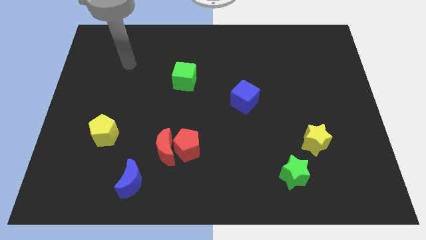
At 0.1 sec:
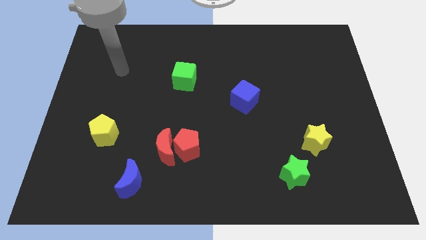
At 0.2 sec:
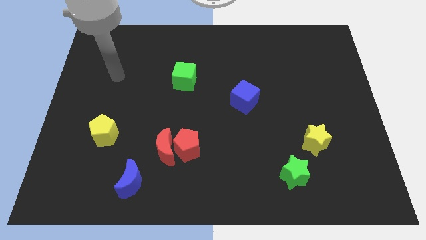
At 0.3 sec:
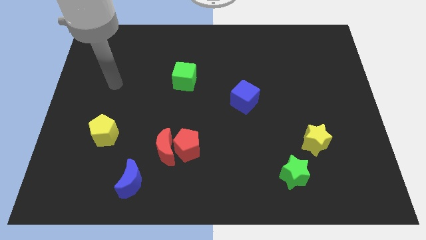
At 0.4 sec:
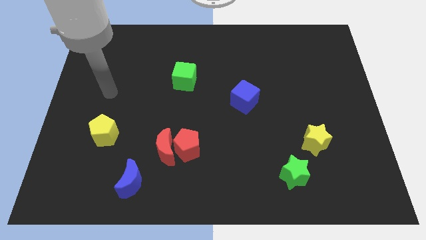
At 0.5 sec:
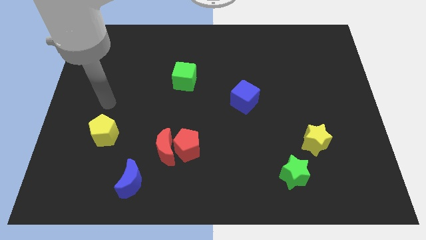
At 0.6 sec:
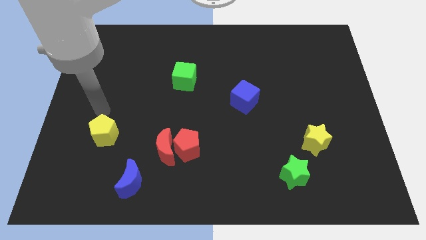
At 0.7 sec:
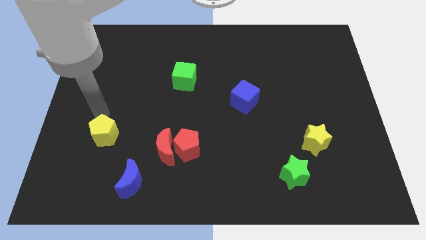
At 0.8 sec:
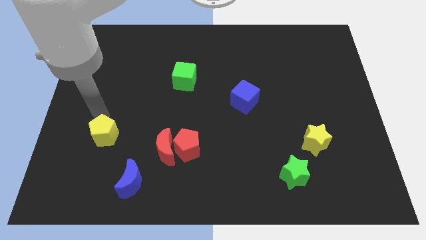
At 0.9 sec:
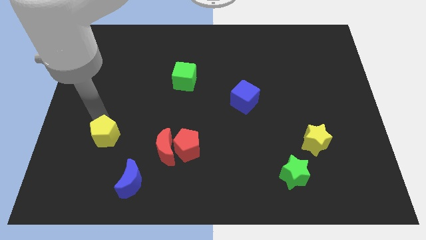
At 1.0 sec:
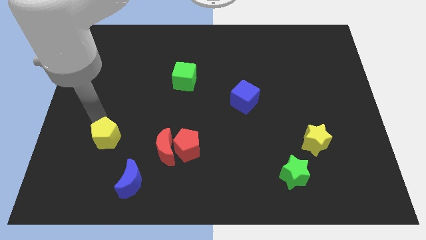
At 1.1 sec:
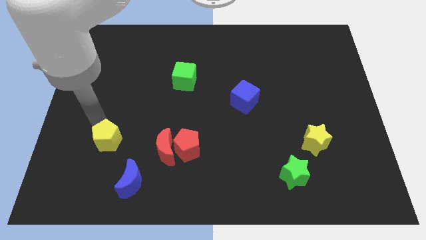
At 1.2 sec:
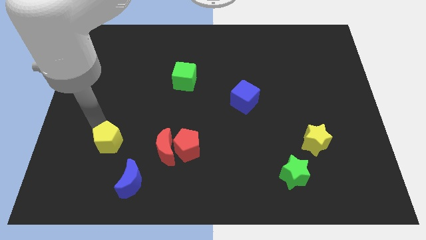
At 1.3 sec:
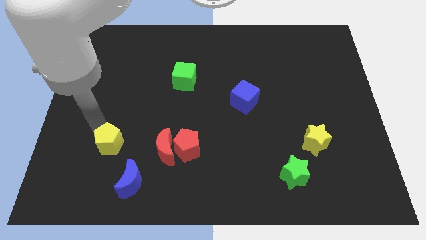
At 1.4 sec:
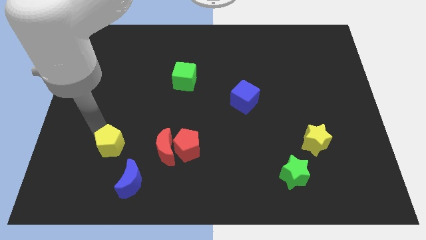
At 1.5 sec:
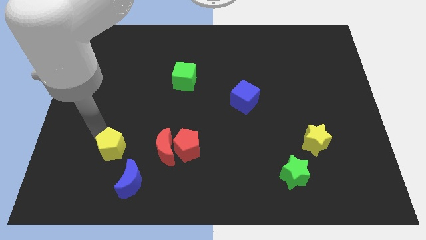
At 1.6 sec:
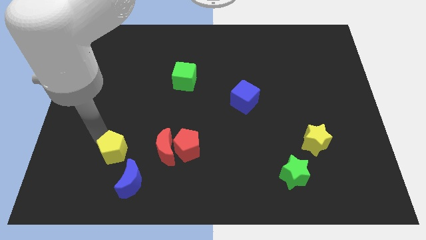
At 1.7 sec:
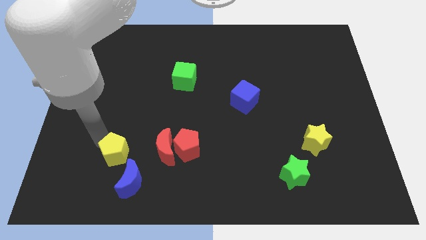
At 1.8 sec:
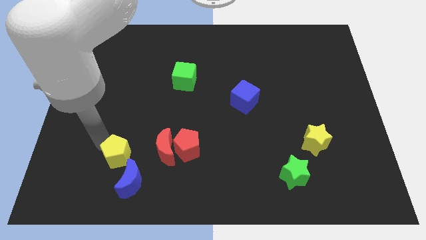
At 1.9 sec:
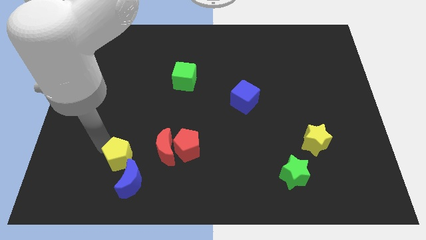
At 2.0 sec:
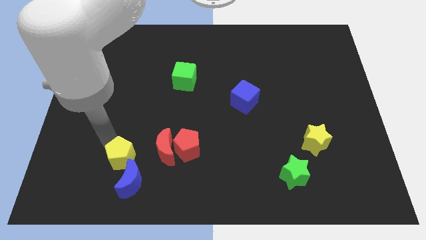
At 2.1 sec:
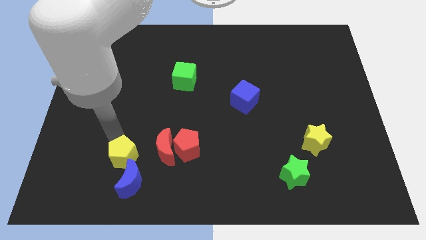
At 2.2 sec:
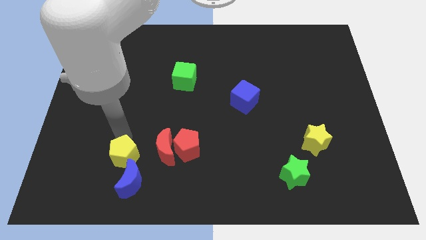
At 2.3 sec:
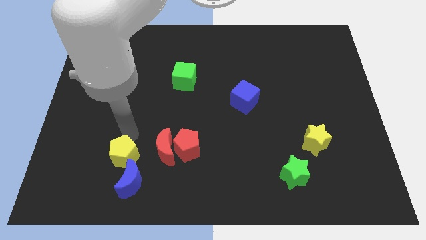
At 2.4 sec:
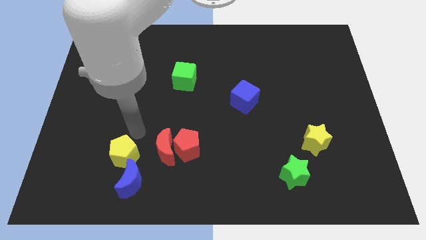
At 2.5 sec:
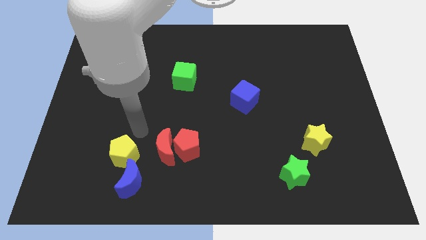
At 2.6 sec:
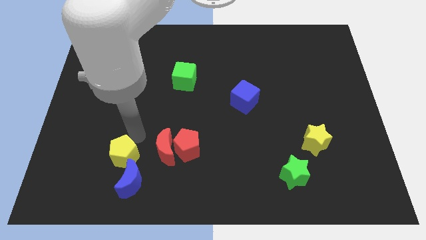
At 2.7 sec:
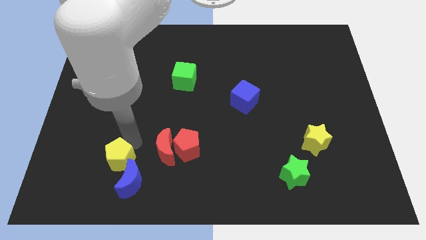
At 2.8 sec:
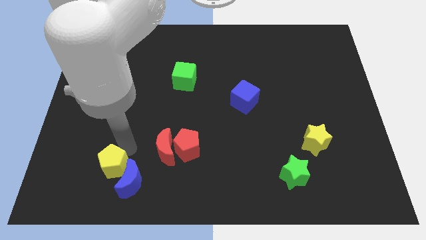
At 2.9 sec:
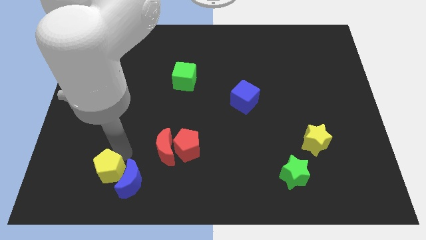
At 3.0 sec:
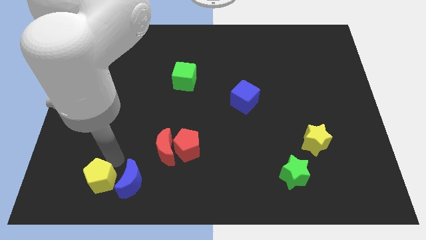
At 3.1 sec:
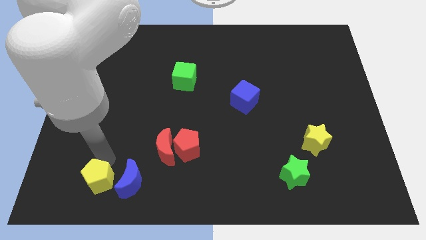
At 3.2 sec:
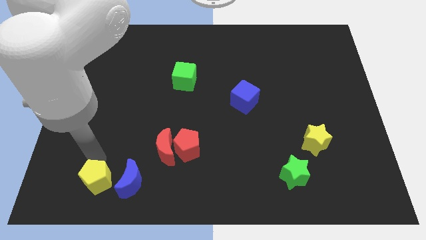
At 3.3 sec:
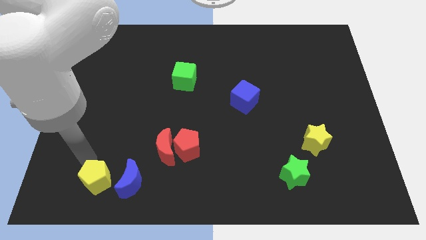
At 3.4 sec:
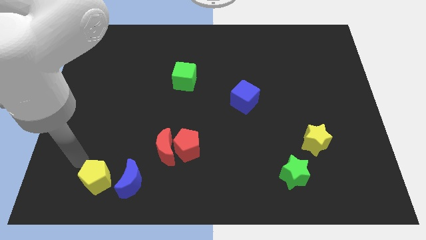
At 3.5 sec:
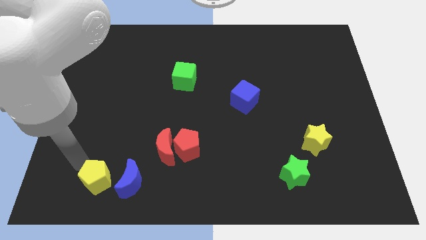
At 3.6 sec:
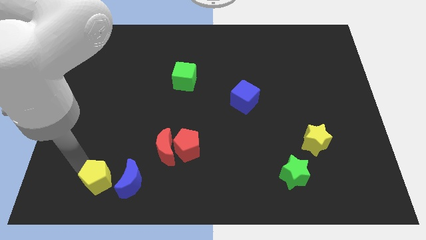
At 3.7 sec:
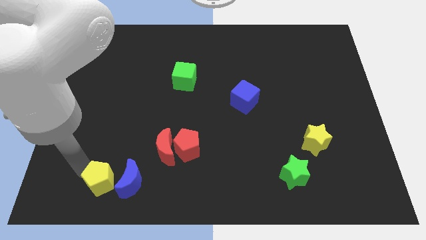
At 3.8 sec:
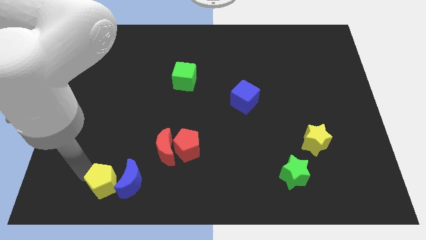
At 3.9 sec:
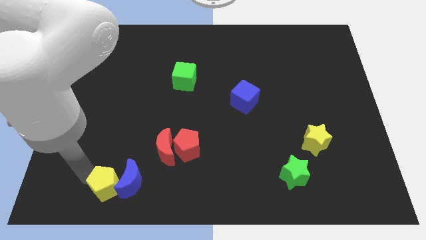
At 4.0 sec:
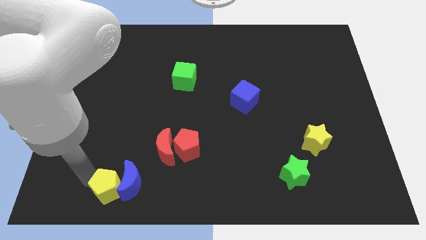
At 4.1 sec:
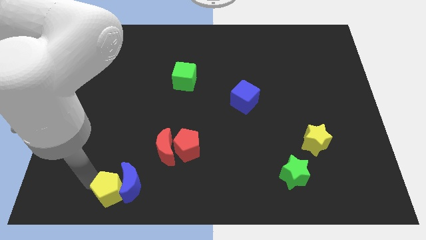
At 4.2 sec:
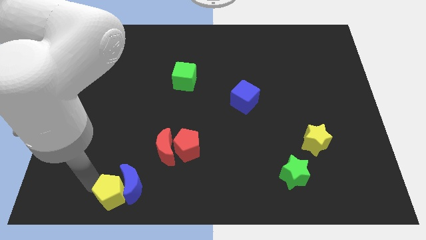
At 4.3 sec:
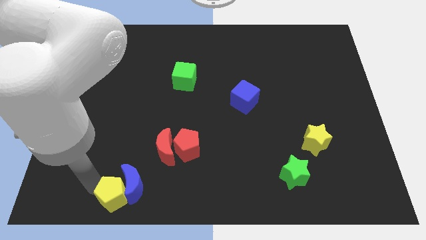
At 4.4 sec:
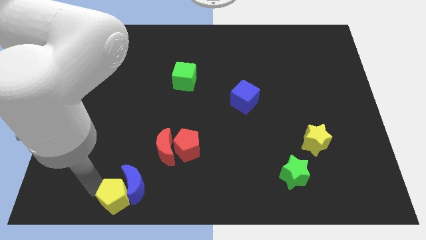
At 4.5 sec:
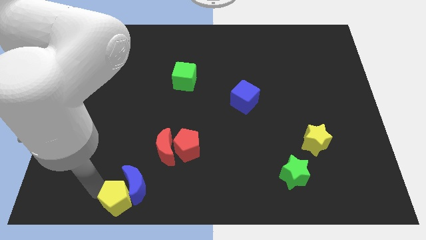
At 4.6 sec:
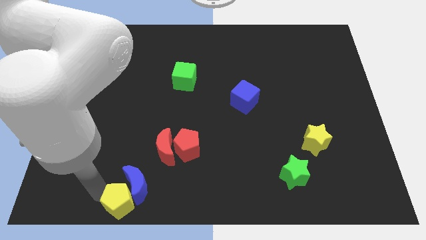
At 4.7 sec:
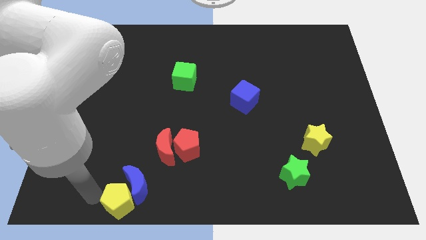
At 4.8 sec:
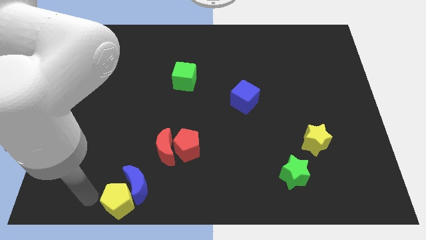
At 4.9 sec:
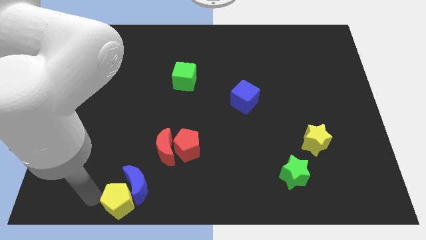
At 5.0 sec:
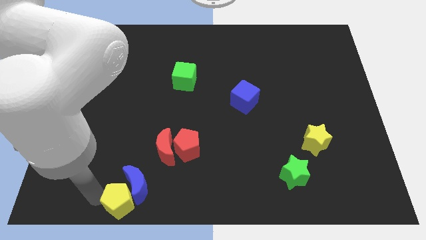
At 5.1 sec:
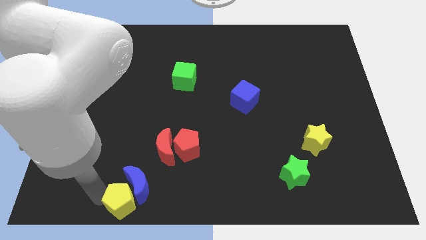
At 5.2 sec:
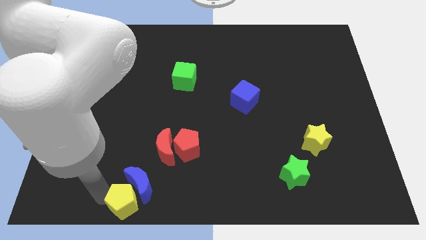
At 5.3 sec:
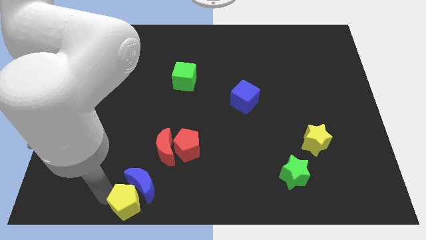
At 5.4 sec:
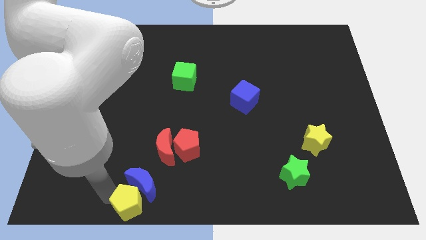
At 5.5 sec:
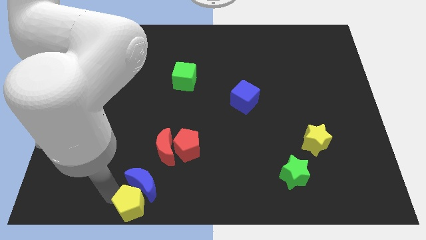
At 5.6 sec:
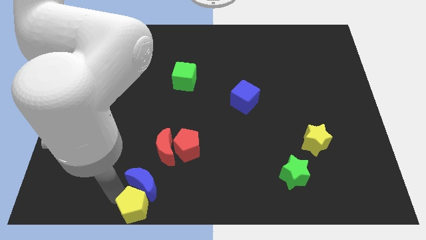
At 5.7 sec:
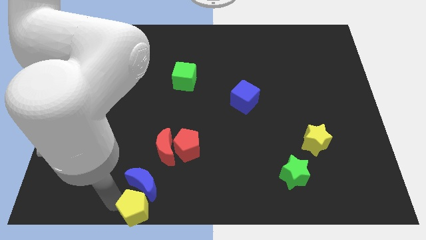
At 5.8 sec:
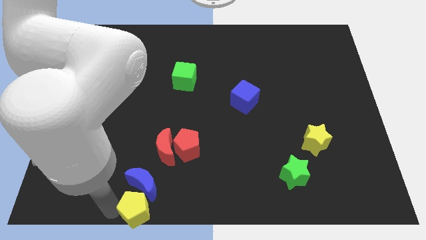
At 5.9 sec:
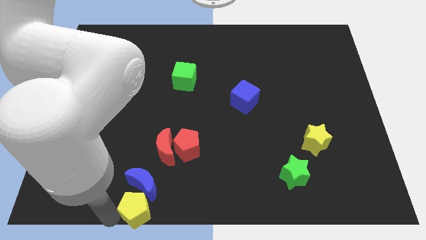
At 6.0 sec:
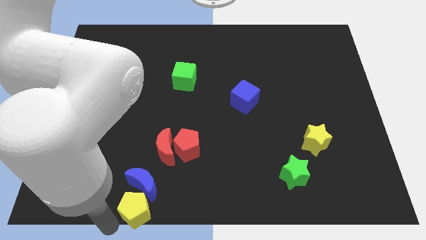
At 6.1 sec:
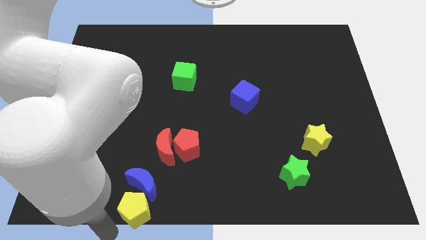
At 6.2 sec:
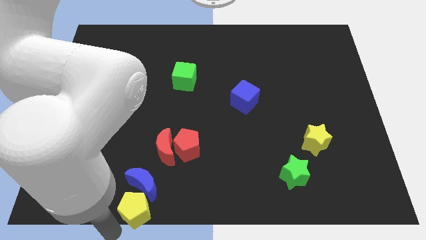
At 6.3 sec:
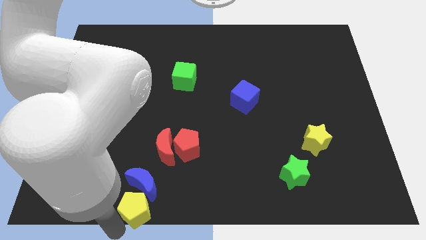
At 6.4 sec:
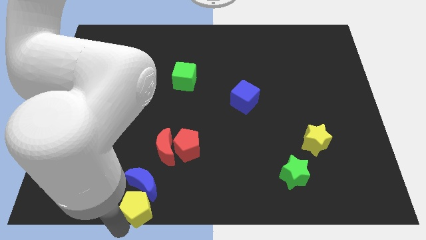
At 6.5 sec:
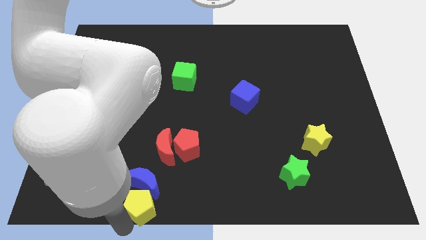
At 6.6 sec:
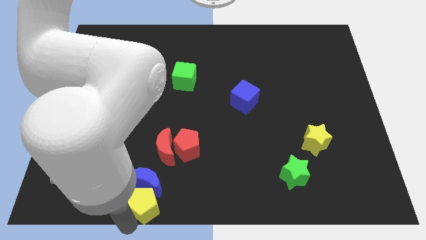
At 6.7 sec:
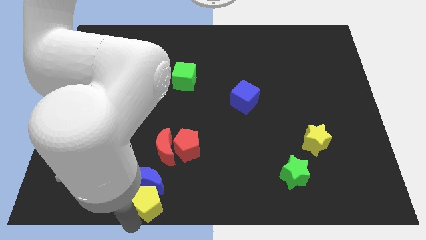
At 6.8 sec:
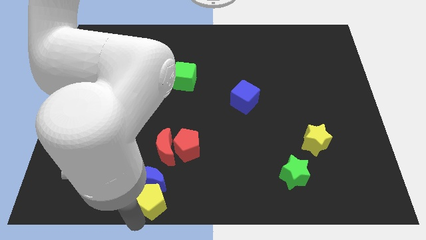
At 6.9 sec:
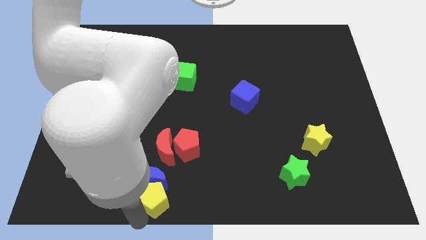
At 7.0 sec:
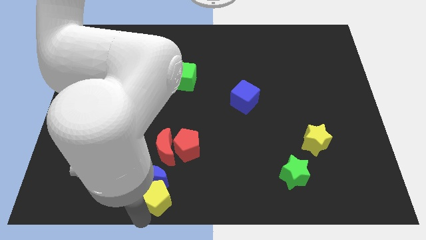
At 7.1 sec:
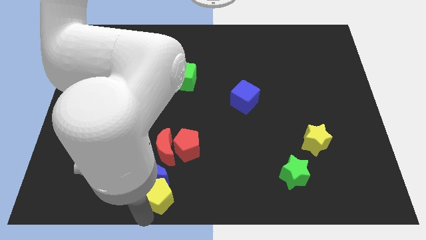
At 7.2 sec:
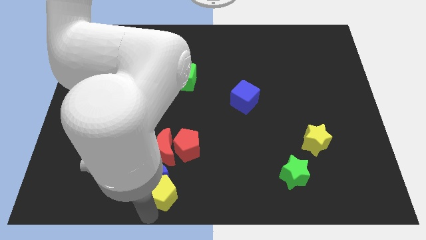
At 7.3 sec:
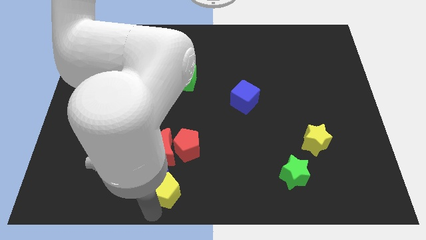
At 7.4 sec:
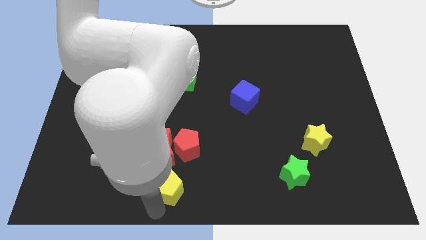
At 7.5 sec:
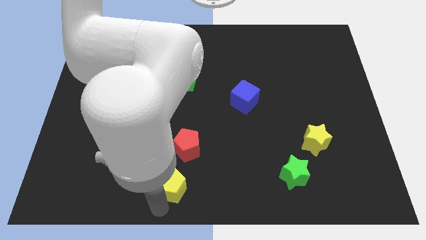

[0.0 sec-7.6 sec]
push the yellow pentagon to the bottom right of the red moon

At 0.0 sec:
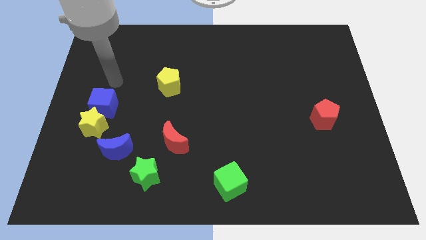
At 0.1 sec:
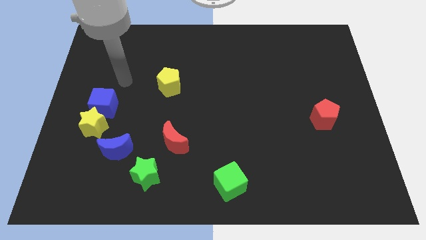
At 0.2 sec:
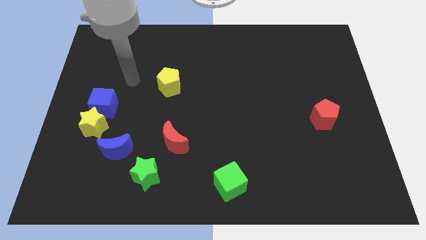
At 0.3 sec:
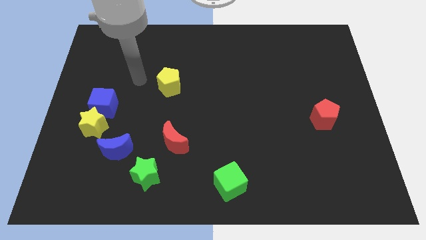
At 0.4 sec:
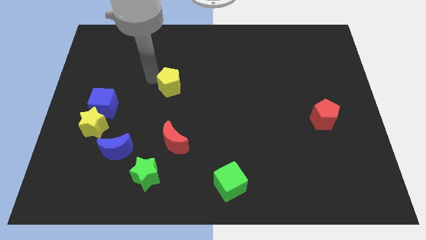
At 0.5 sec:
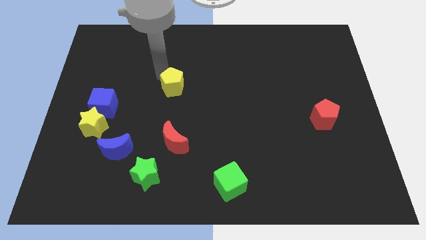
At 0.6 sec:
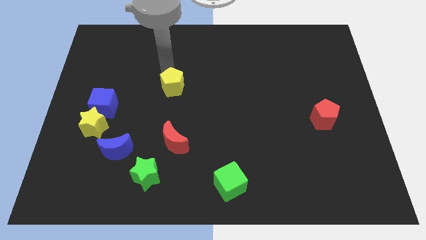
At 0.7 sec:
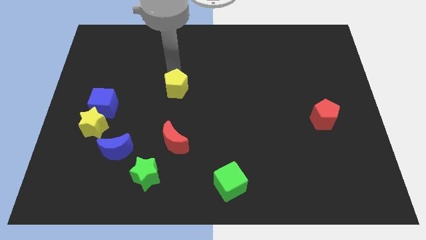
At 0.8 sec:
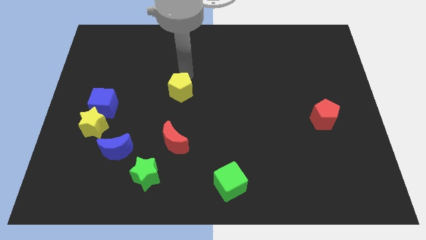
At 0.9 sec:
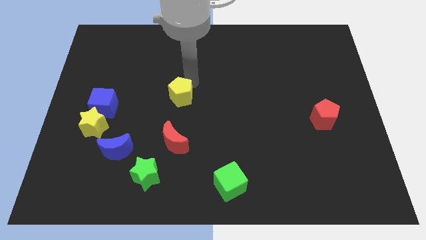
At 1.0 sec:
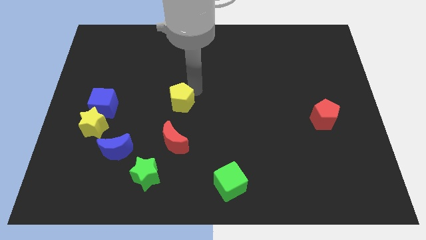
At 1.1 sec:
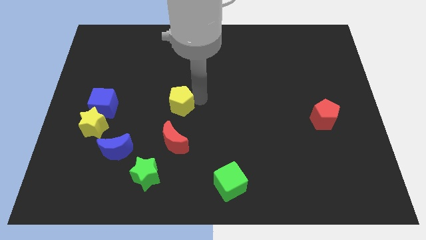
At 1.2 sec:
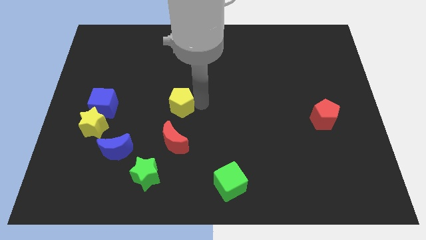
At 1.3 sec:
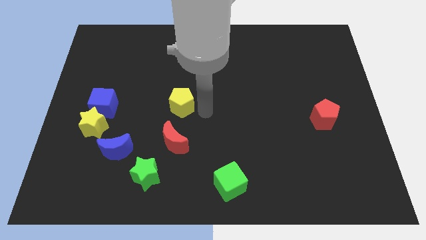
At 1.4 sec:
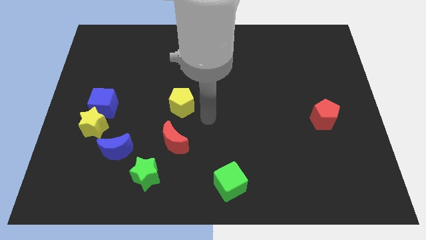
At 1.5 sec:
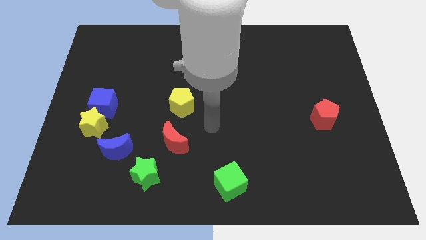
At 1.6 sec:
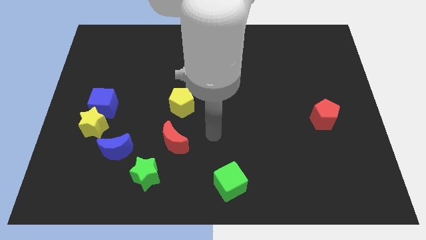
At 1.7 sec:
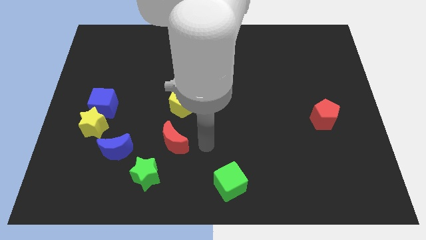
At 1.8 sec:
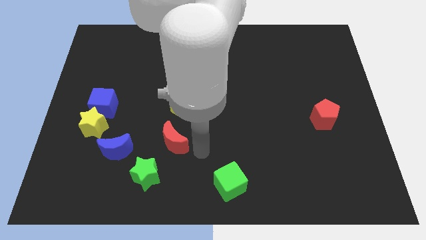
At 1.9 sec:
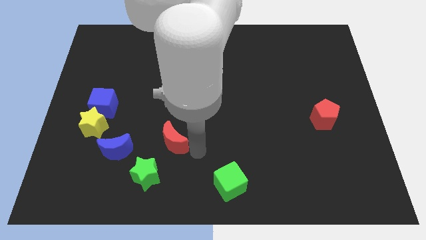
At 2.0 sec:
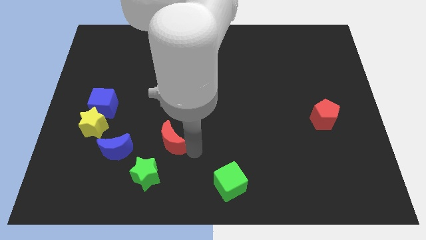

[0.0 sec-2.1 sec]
put the red moon to the top of the green star
